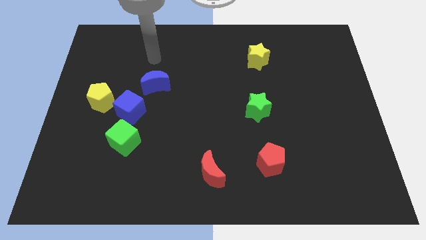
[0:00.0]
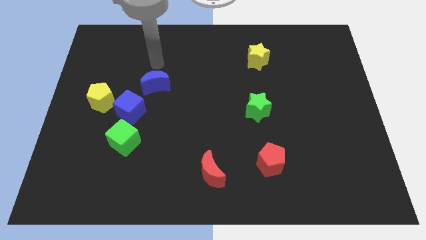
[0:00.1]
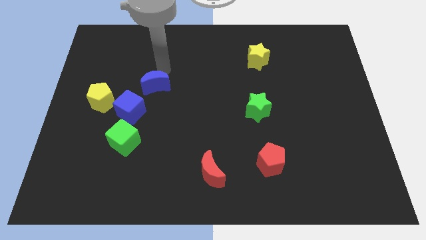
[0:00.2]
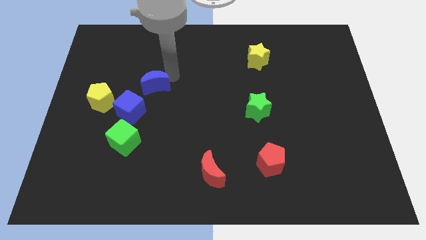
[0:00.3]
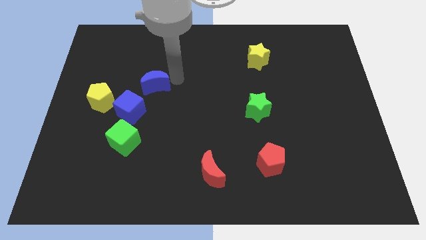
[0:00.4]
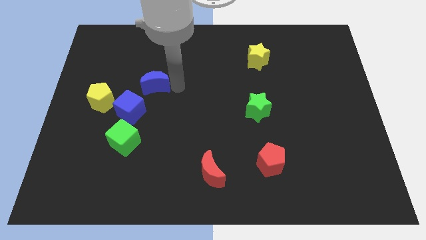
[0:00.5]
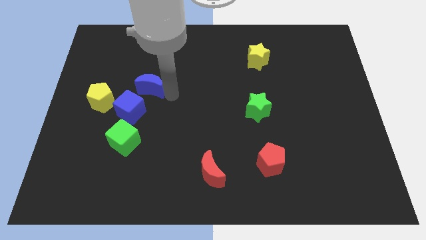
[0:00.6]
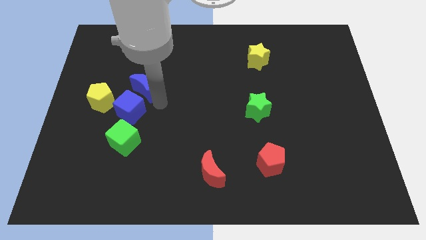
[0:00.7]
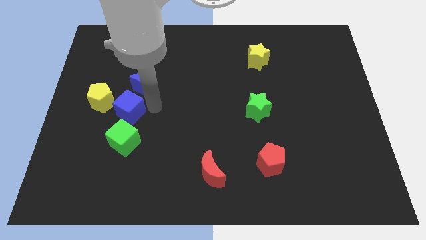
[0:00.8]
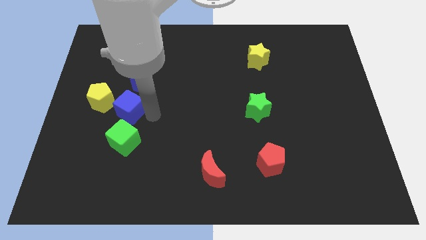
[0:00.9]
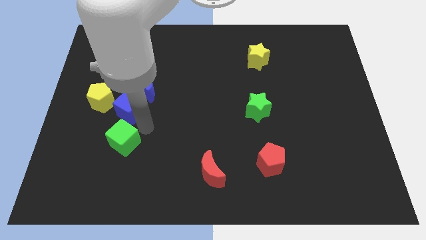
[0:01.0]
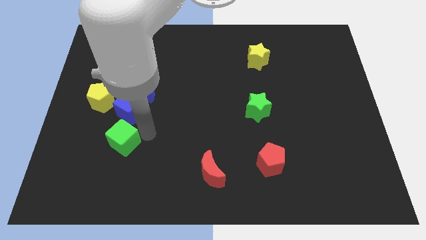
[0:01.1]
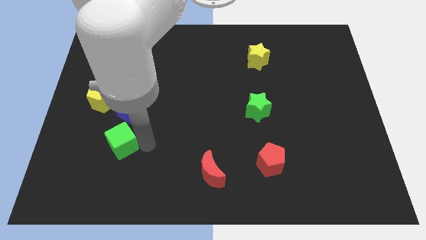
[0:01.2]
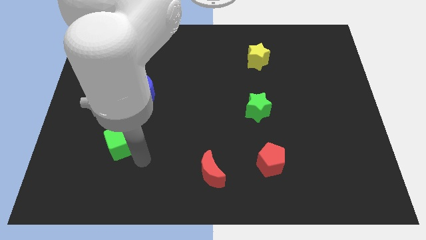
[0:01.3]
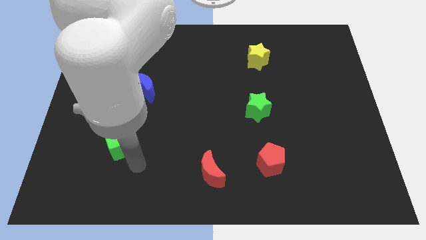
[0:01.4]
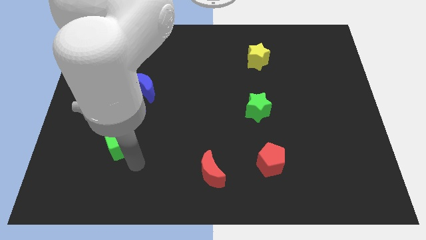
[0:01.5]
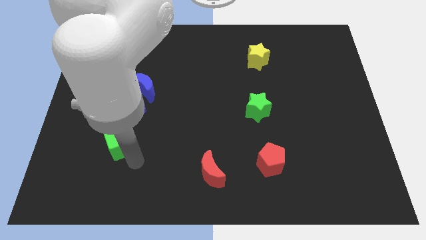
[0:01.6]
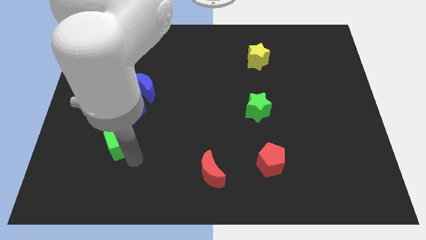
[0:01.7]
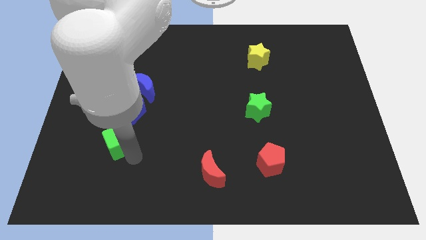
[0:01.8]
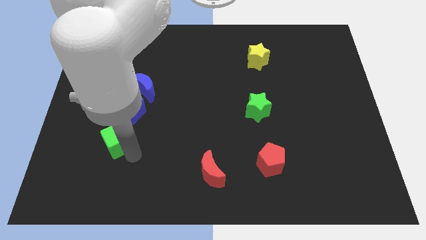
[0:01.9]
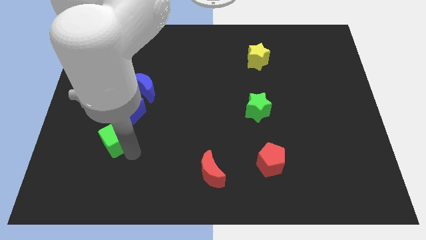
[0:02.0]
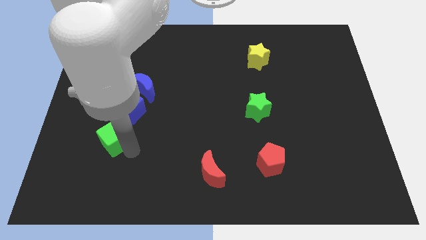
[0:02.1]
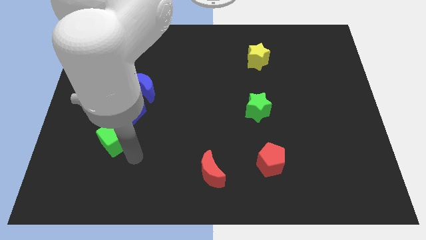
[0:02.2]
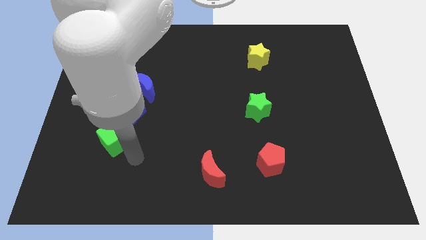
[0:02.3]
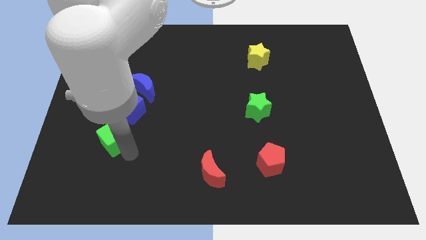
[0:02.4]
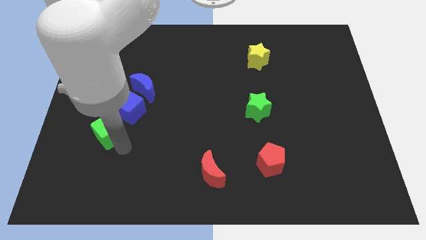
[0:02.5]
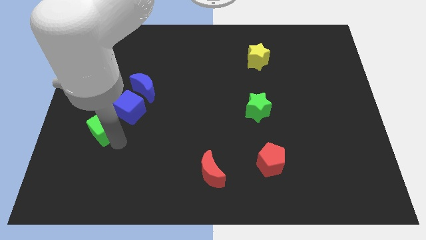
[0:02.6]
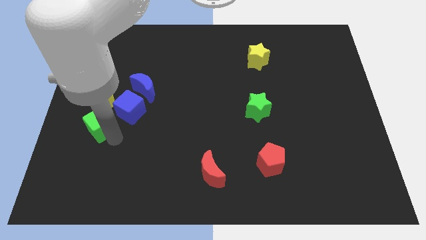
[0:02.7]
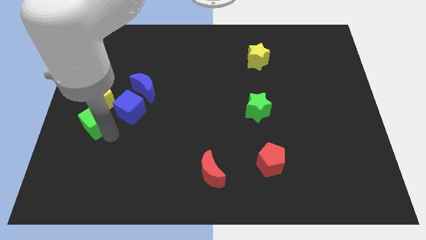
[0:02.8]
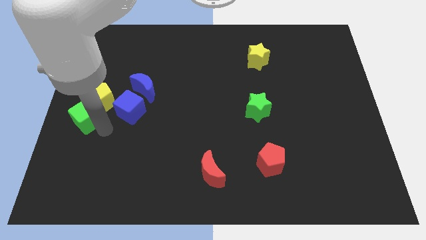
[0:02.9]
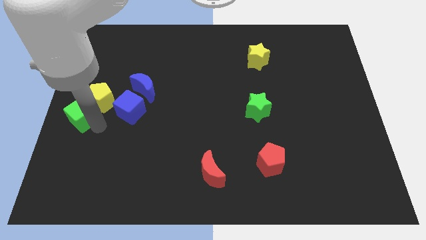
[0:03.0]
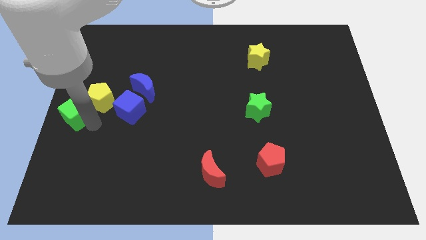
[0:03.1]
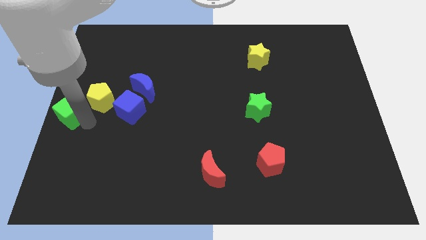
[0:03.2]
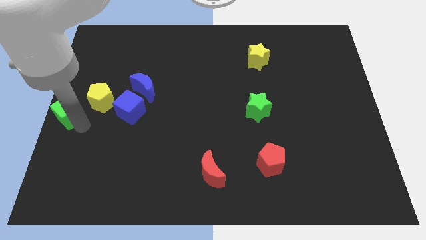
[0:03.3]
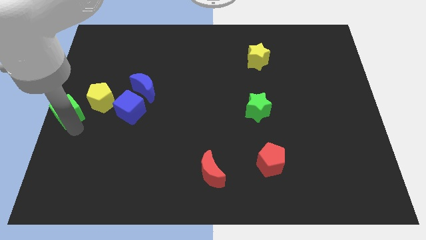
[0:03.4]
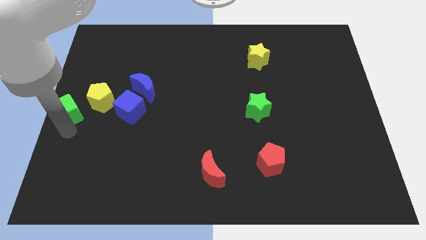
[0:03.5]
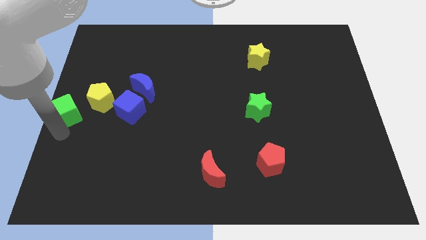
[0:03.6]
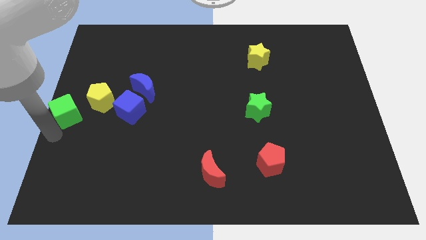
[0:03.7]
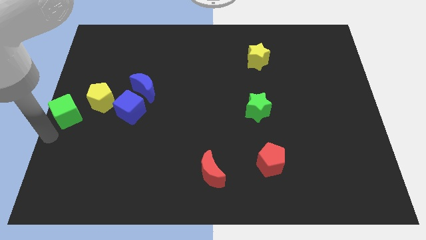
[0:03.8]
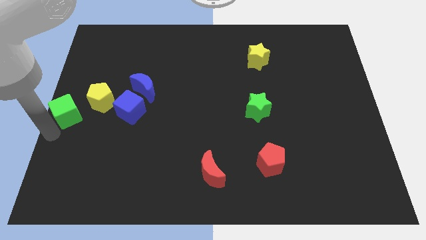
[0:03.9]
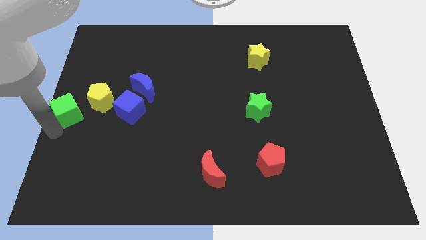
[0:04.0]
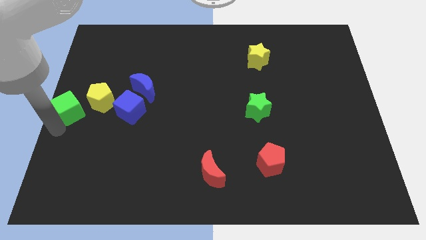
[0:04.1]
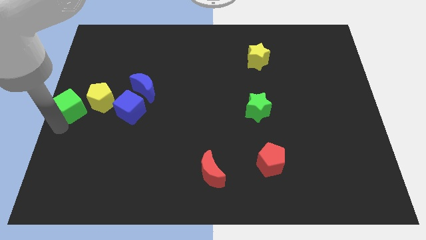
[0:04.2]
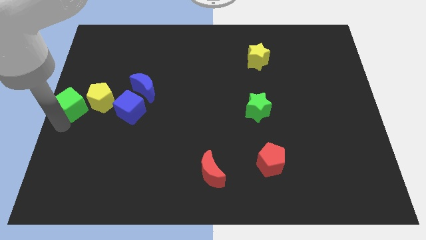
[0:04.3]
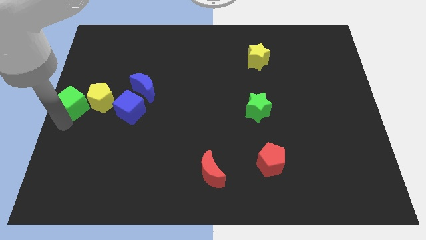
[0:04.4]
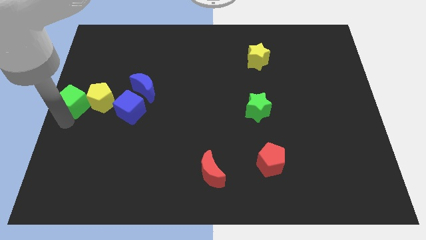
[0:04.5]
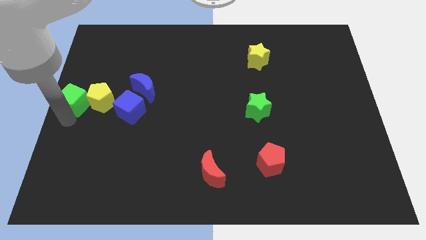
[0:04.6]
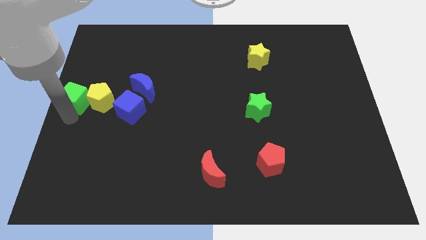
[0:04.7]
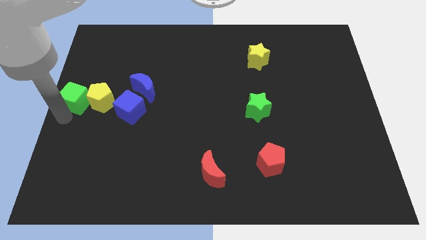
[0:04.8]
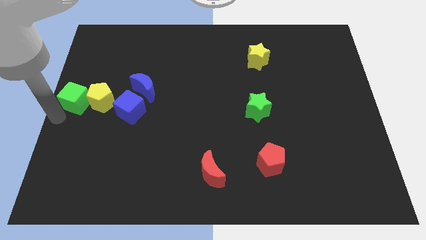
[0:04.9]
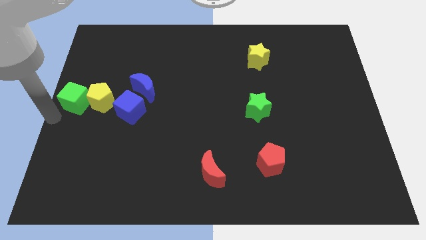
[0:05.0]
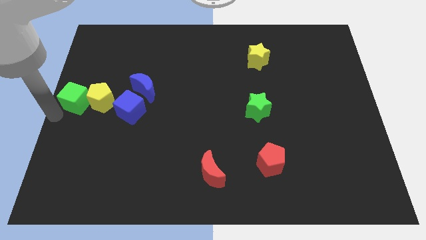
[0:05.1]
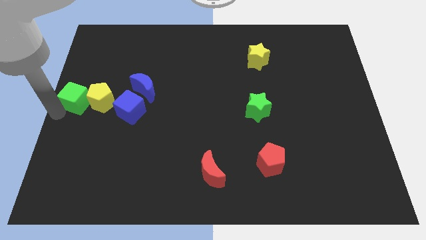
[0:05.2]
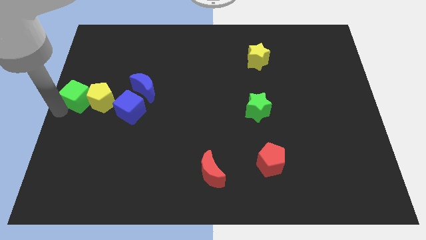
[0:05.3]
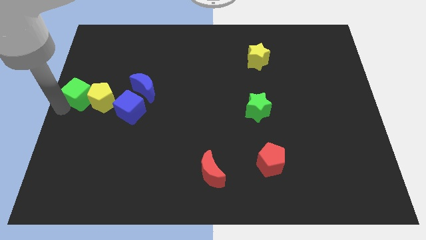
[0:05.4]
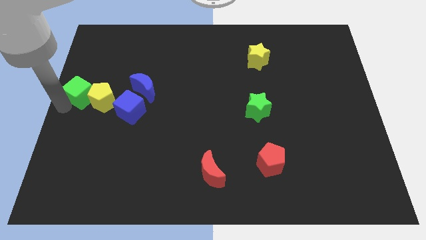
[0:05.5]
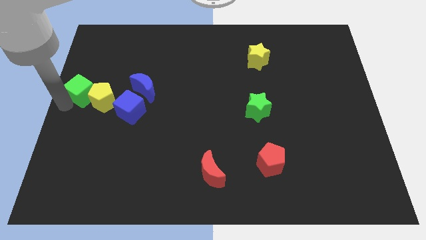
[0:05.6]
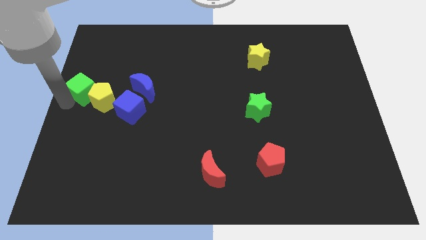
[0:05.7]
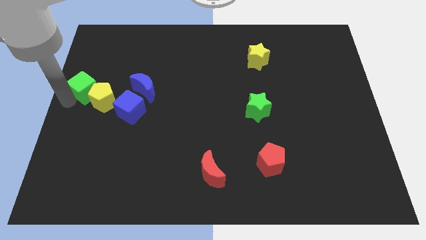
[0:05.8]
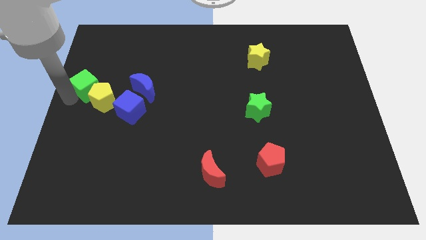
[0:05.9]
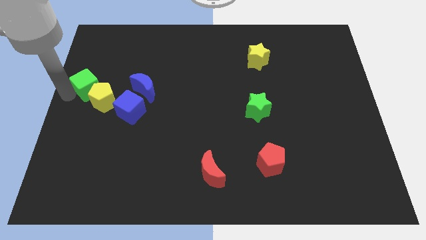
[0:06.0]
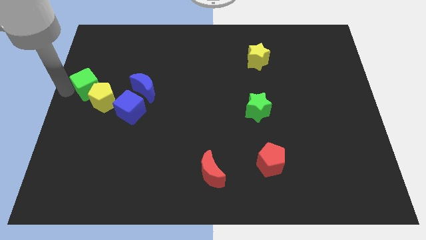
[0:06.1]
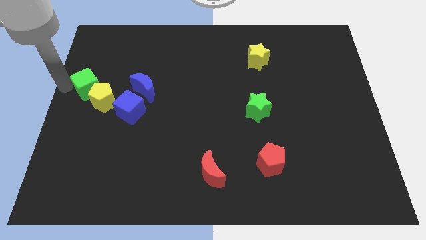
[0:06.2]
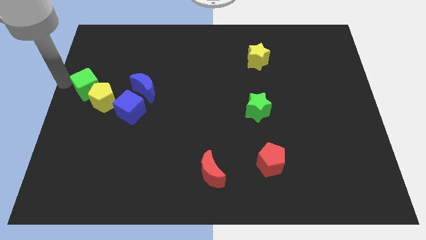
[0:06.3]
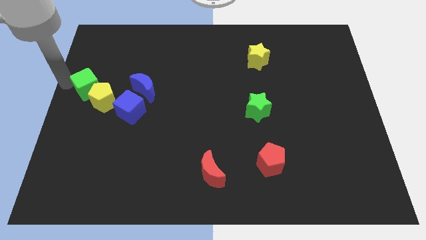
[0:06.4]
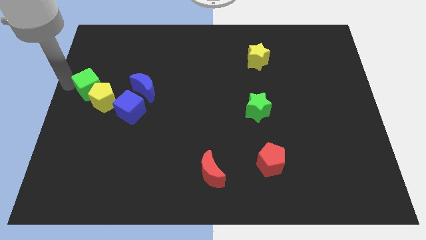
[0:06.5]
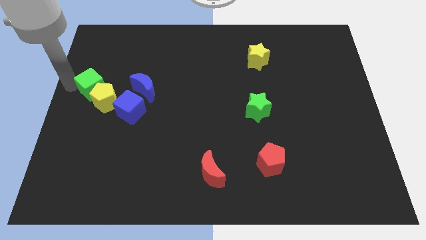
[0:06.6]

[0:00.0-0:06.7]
slide the green cube diagonally up and to the left of the blue cube
